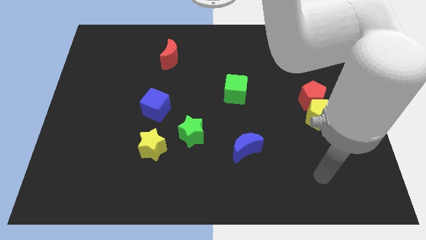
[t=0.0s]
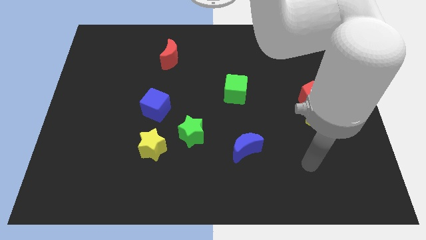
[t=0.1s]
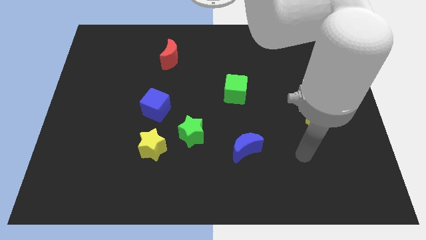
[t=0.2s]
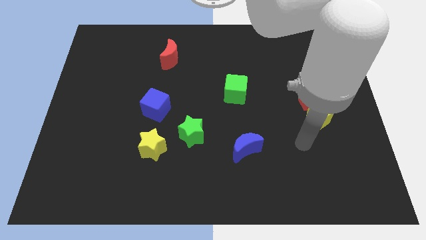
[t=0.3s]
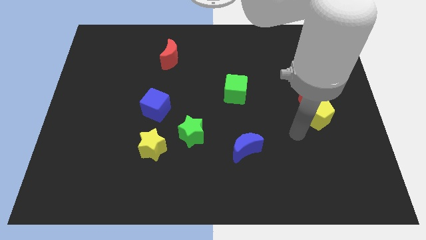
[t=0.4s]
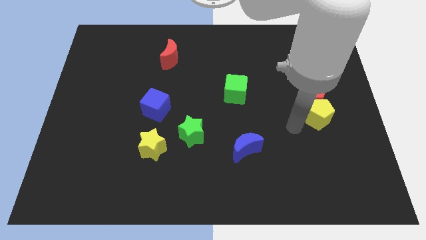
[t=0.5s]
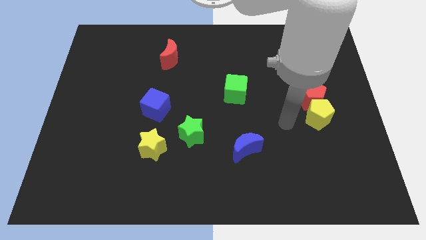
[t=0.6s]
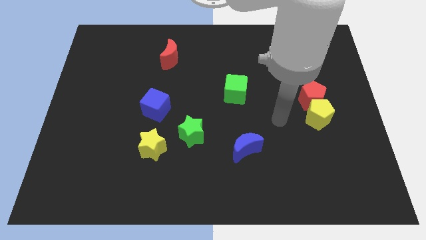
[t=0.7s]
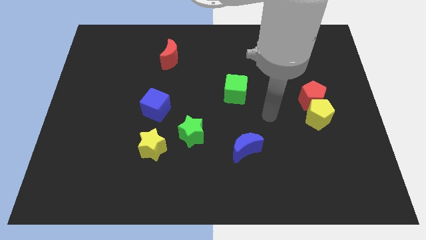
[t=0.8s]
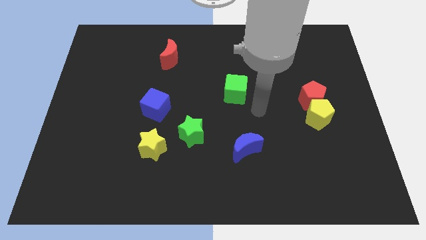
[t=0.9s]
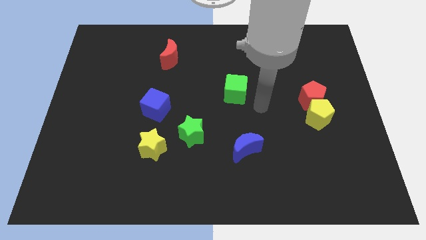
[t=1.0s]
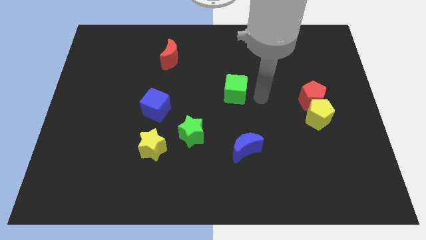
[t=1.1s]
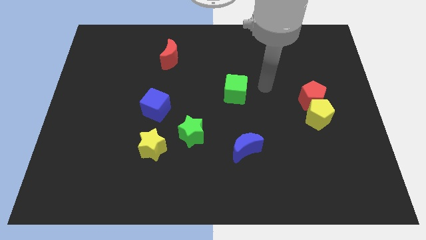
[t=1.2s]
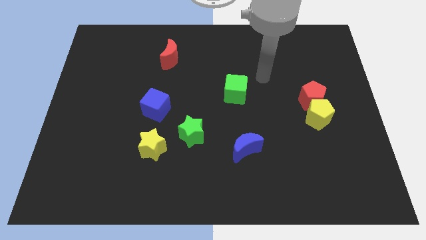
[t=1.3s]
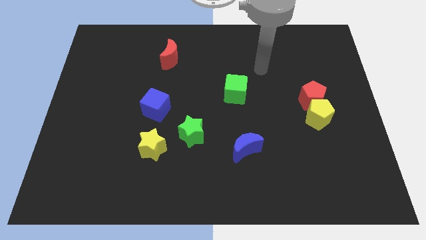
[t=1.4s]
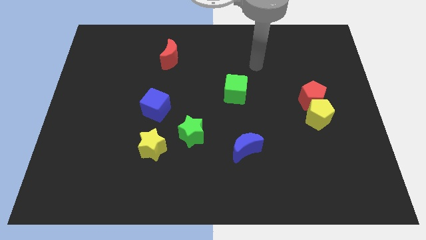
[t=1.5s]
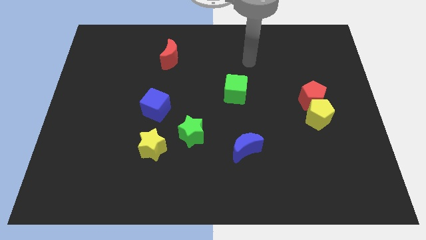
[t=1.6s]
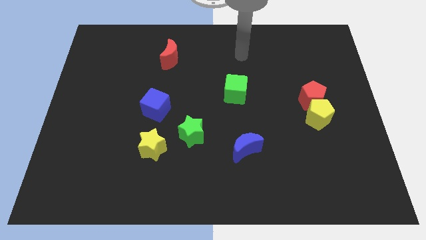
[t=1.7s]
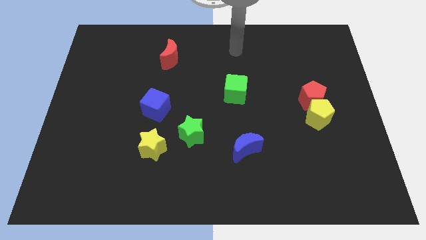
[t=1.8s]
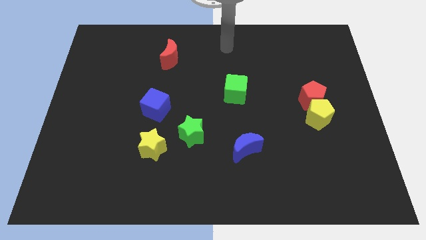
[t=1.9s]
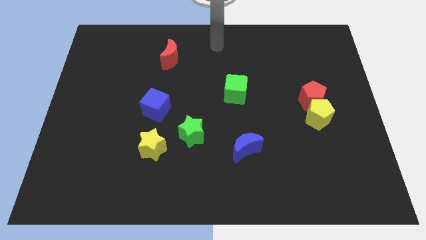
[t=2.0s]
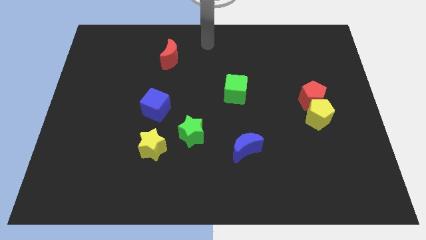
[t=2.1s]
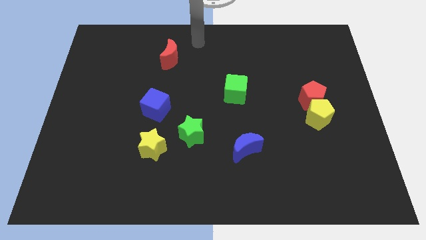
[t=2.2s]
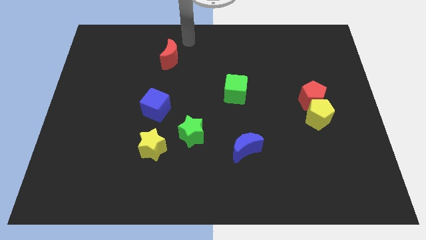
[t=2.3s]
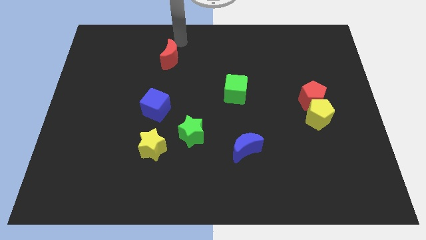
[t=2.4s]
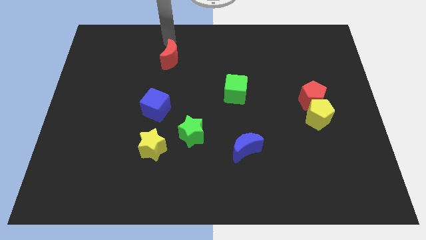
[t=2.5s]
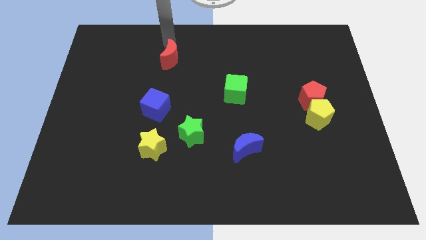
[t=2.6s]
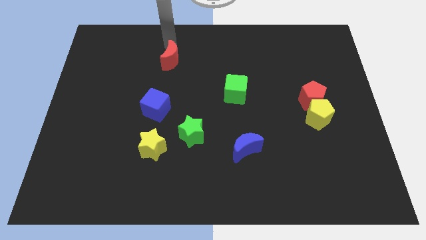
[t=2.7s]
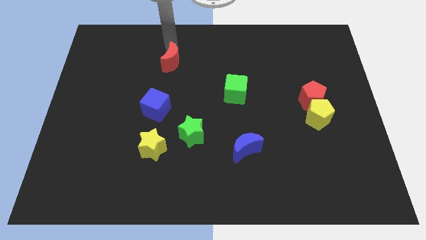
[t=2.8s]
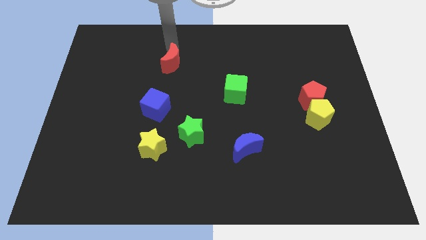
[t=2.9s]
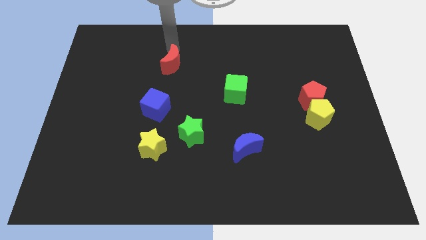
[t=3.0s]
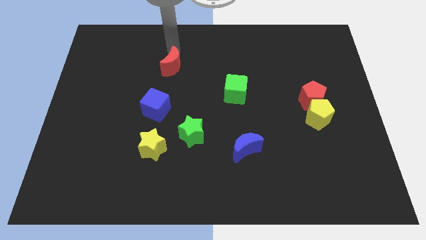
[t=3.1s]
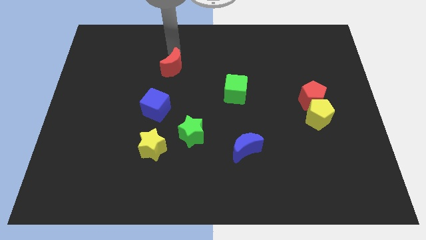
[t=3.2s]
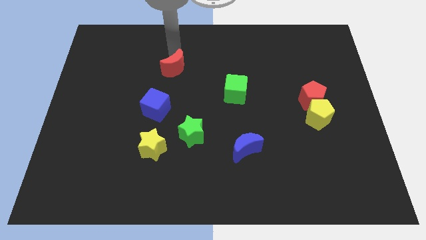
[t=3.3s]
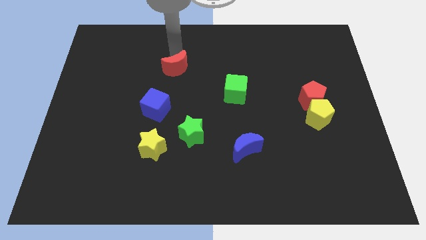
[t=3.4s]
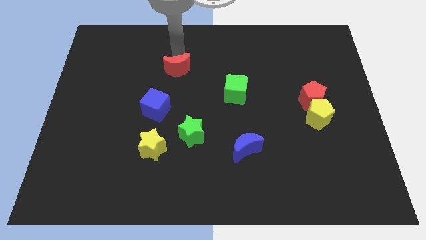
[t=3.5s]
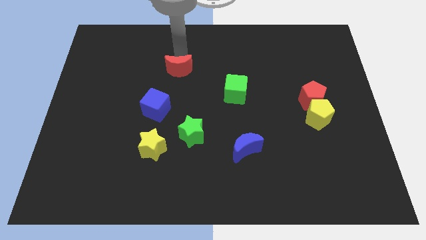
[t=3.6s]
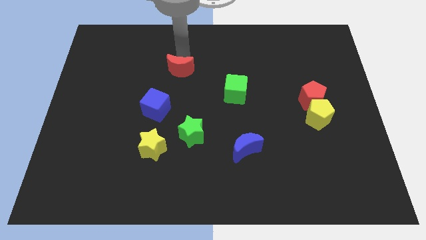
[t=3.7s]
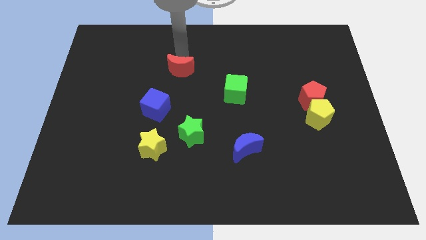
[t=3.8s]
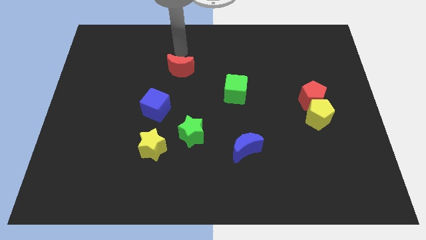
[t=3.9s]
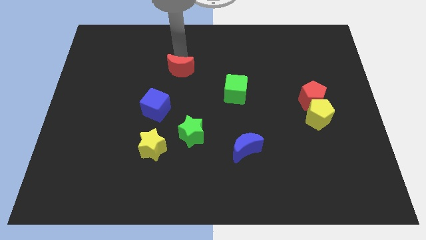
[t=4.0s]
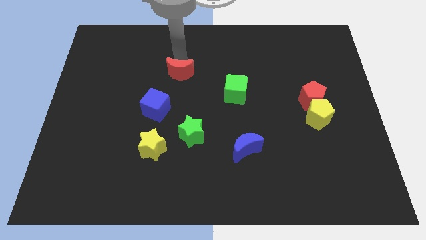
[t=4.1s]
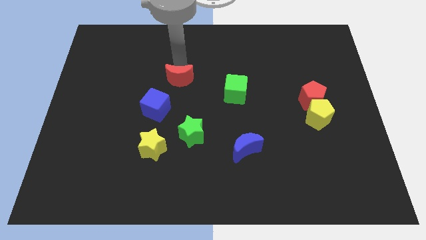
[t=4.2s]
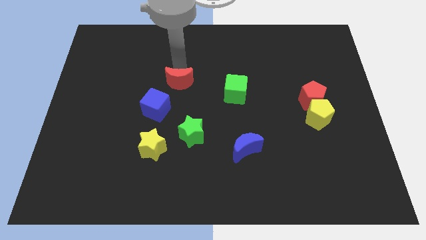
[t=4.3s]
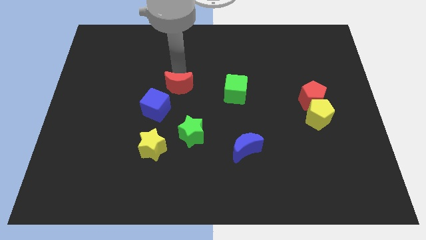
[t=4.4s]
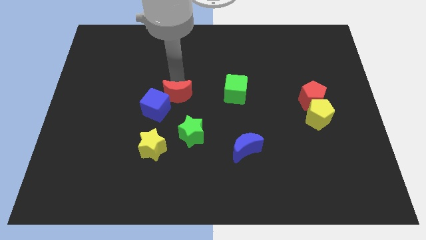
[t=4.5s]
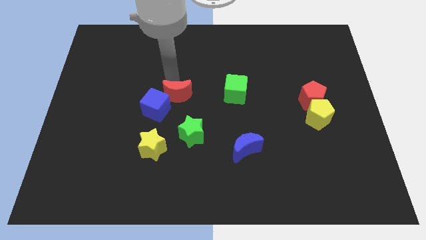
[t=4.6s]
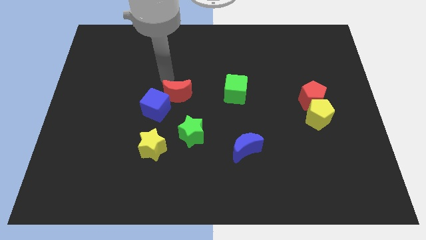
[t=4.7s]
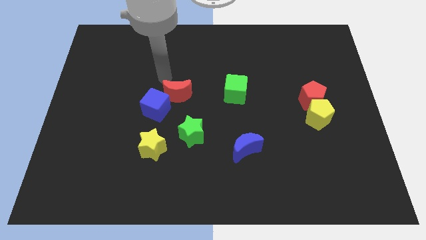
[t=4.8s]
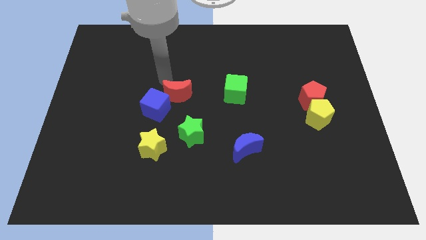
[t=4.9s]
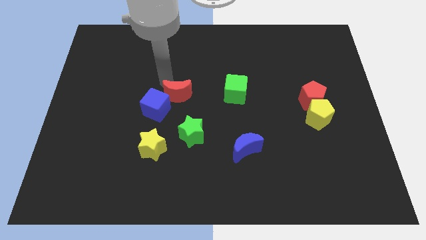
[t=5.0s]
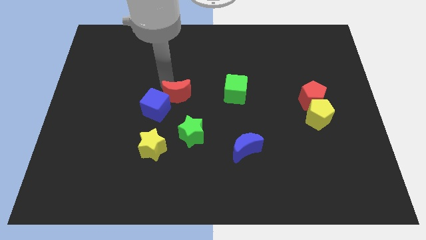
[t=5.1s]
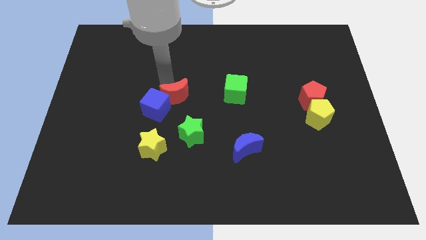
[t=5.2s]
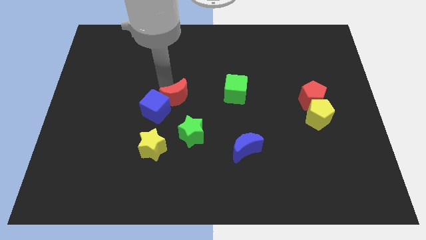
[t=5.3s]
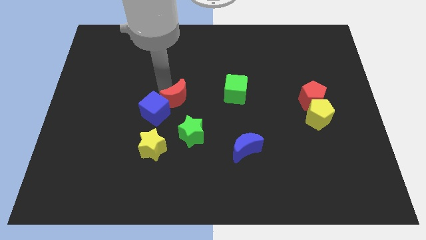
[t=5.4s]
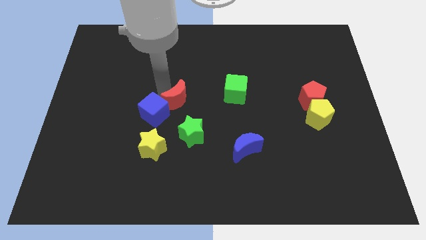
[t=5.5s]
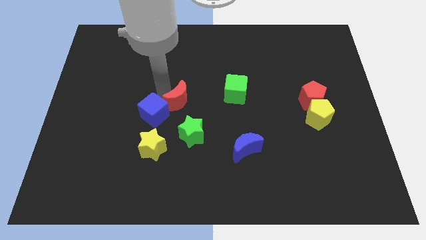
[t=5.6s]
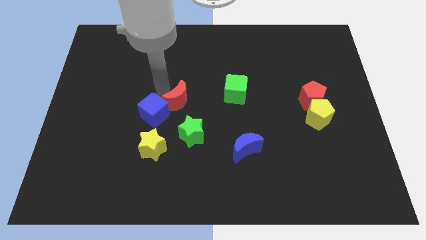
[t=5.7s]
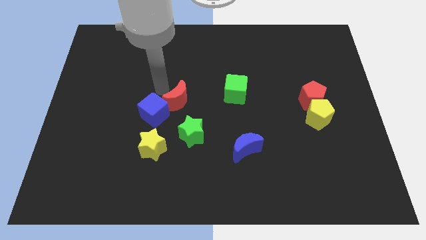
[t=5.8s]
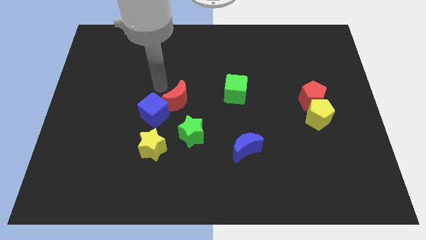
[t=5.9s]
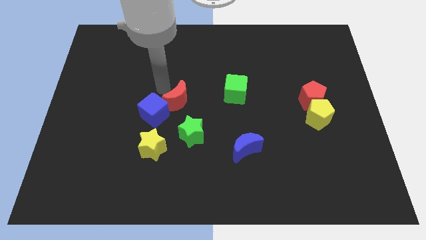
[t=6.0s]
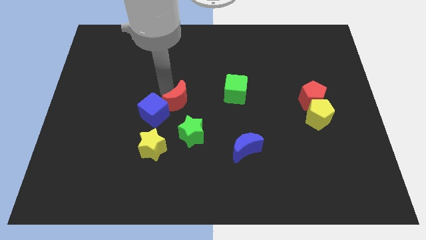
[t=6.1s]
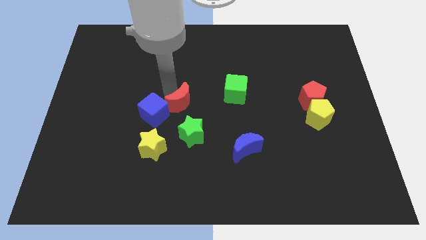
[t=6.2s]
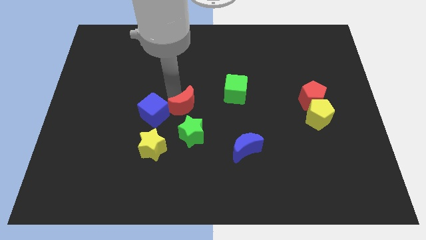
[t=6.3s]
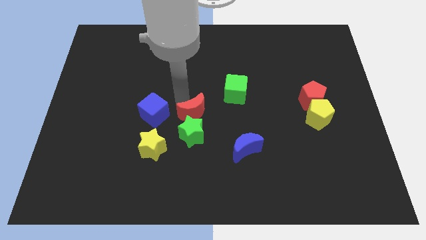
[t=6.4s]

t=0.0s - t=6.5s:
slide the red moon to the green star
